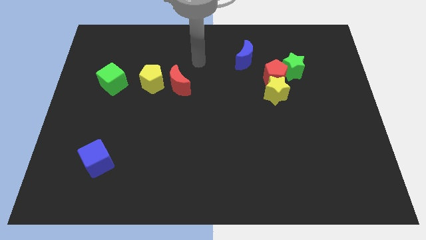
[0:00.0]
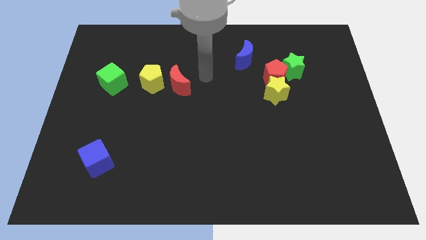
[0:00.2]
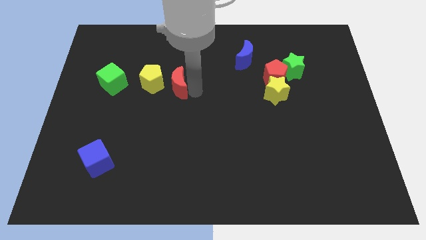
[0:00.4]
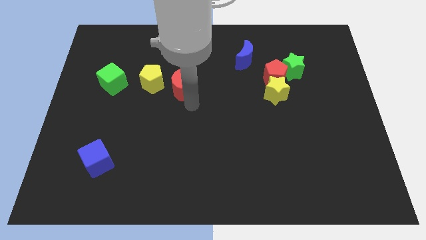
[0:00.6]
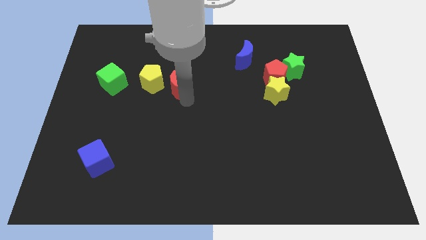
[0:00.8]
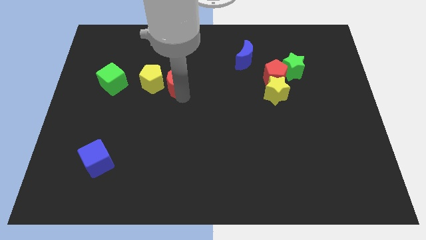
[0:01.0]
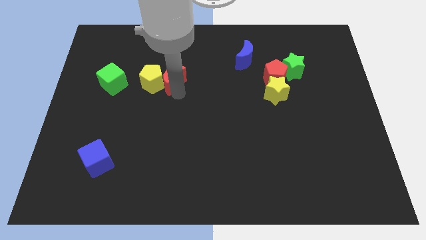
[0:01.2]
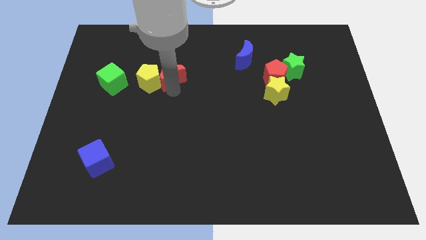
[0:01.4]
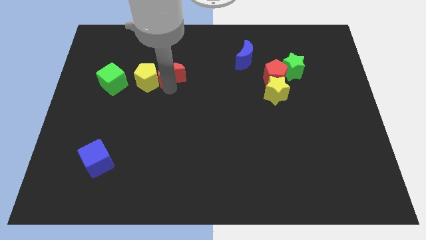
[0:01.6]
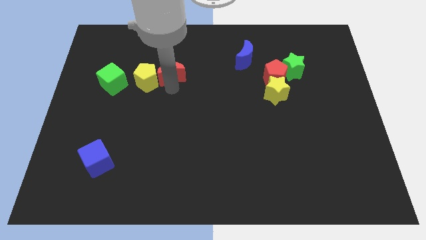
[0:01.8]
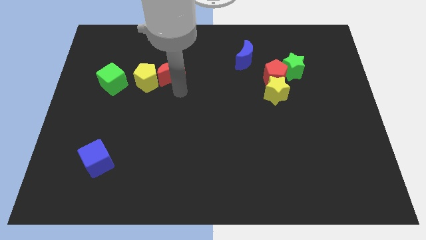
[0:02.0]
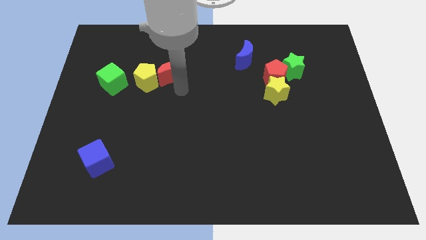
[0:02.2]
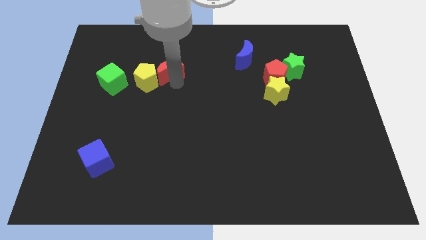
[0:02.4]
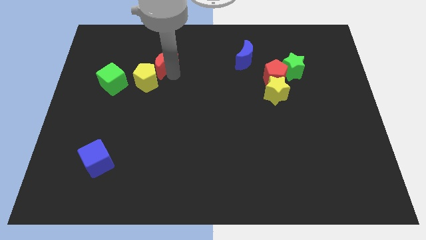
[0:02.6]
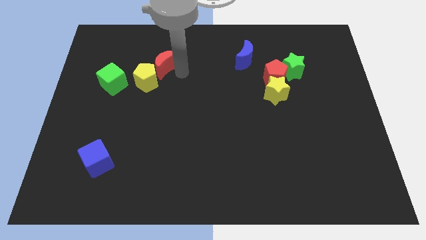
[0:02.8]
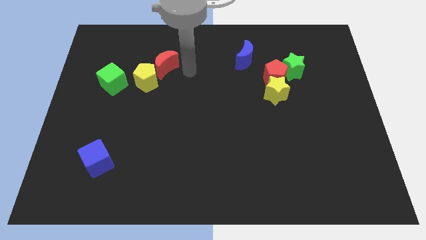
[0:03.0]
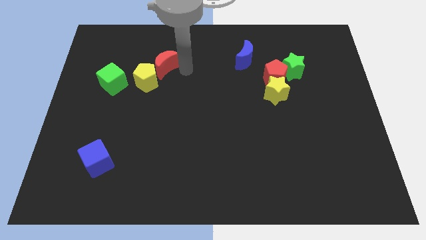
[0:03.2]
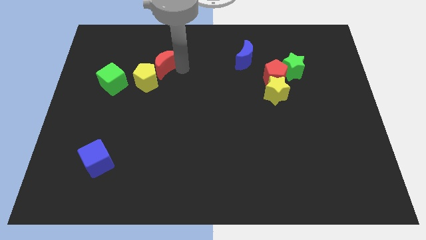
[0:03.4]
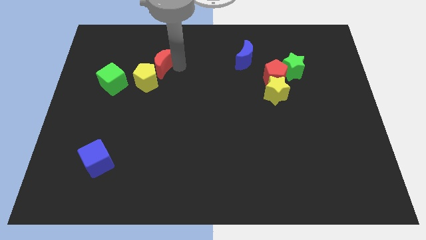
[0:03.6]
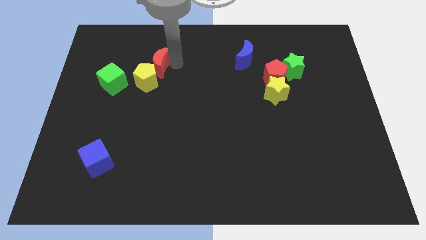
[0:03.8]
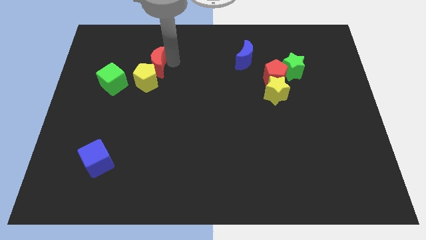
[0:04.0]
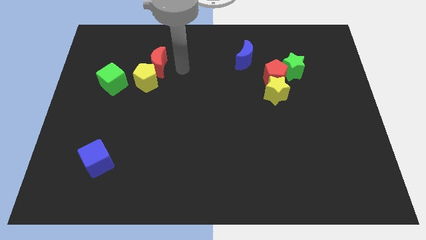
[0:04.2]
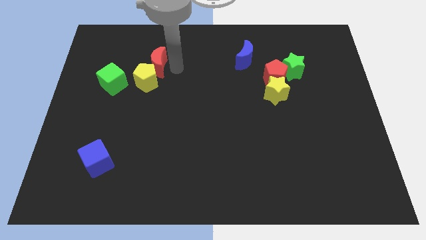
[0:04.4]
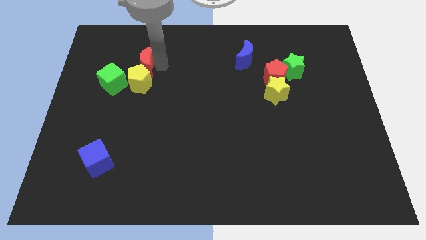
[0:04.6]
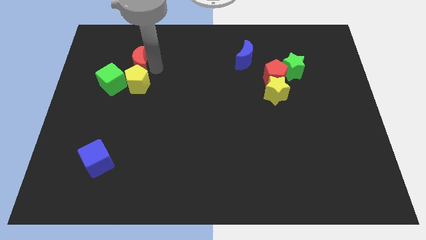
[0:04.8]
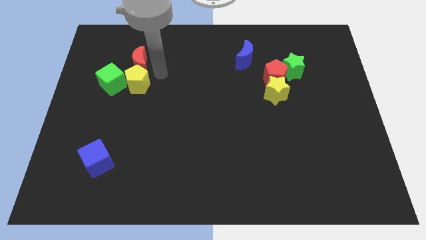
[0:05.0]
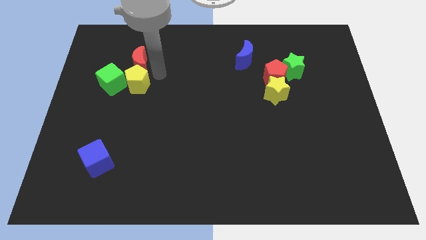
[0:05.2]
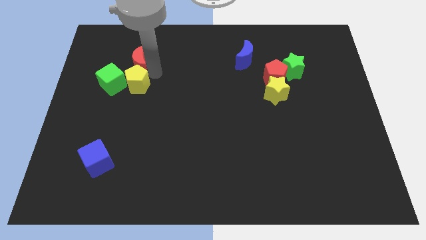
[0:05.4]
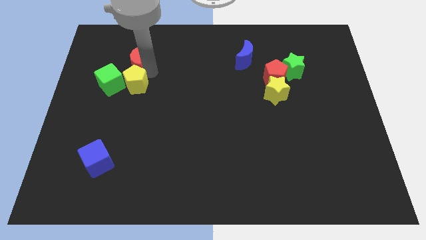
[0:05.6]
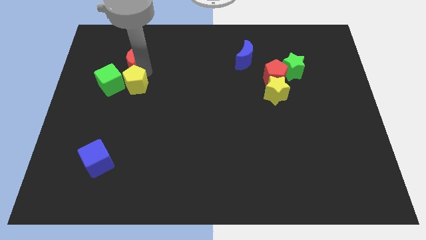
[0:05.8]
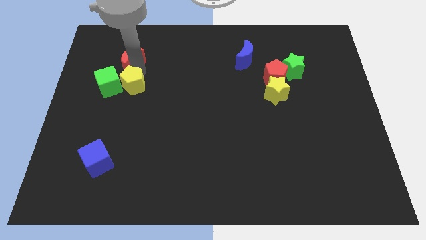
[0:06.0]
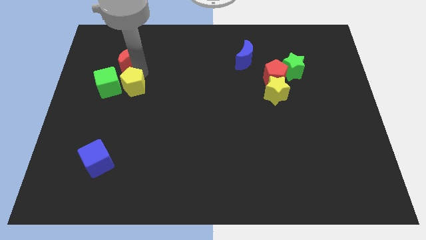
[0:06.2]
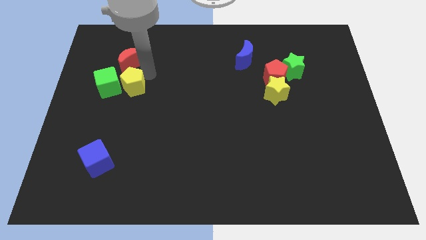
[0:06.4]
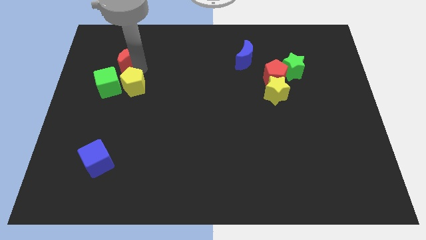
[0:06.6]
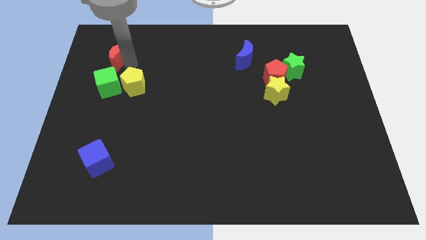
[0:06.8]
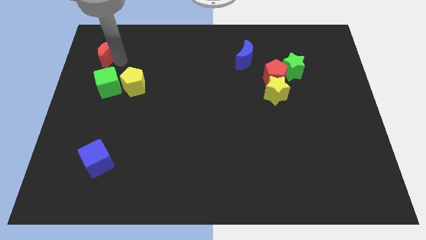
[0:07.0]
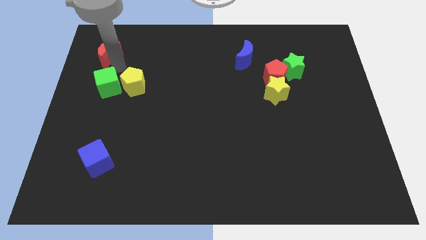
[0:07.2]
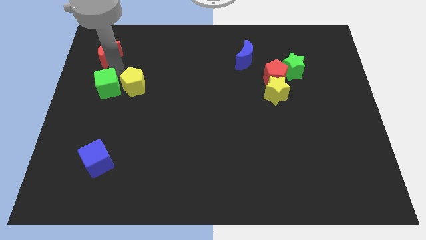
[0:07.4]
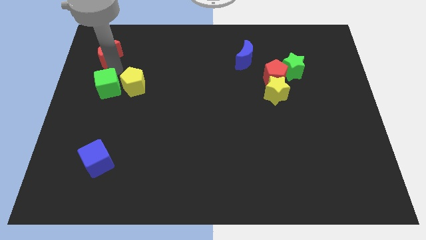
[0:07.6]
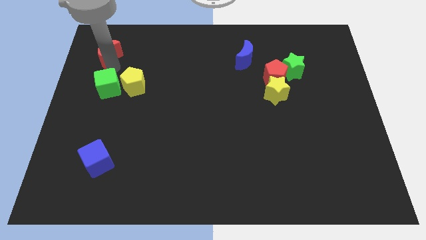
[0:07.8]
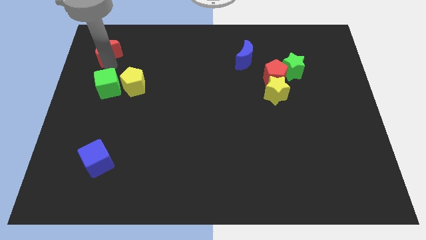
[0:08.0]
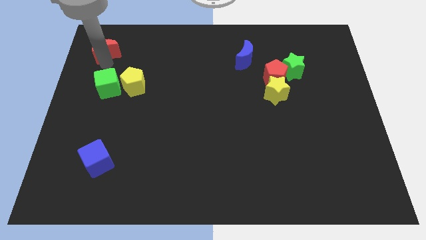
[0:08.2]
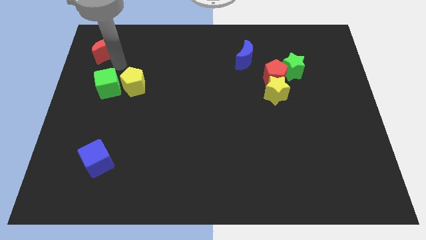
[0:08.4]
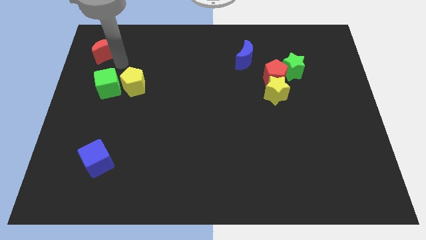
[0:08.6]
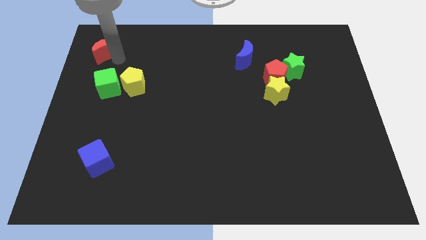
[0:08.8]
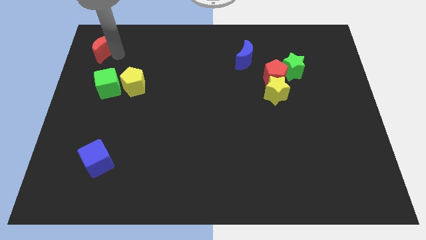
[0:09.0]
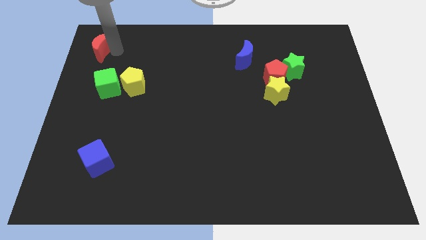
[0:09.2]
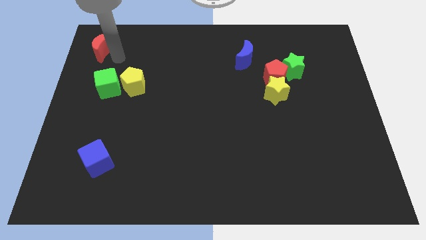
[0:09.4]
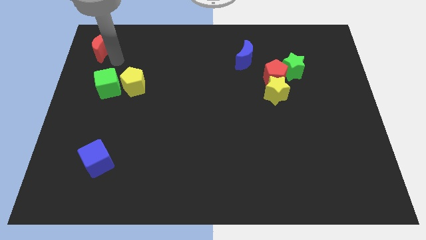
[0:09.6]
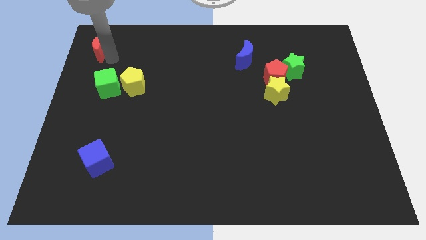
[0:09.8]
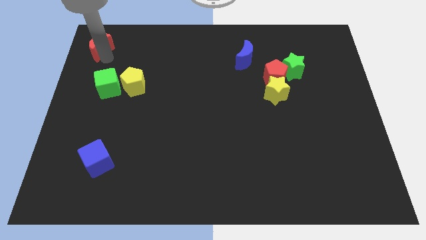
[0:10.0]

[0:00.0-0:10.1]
move the red moon to the upper left corner

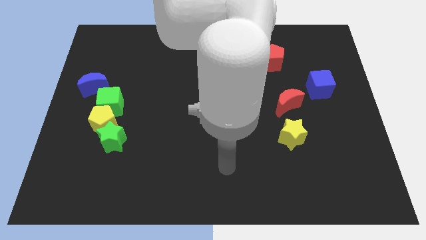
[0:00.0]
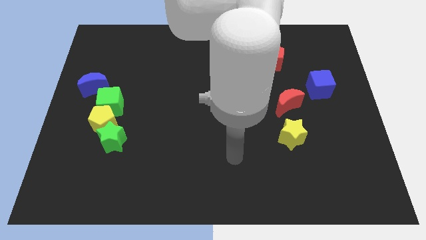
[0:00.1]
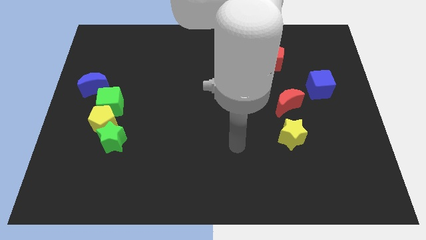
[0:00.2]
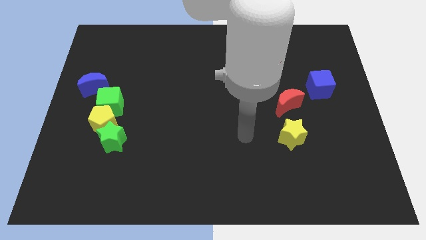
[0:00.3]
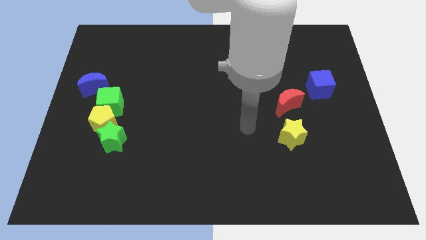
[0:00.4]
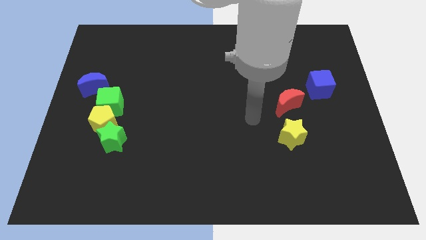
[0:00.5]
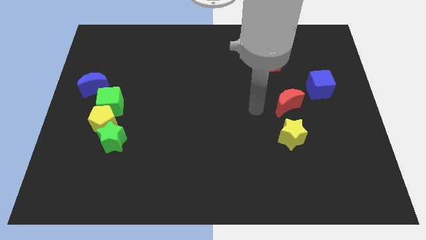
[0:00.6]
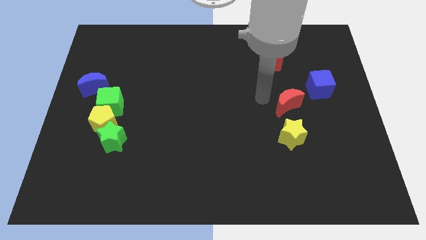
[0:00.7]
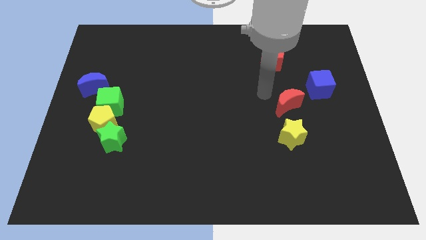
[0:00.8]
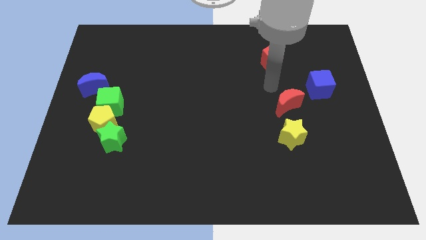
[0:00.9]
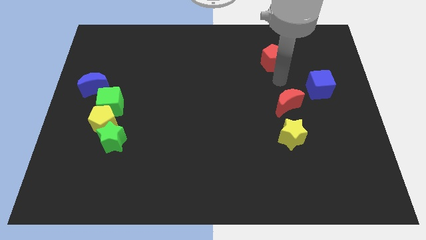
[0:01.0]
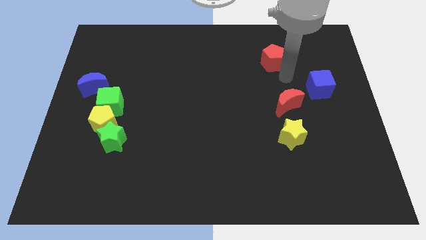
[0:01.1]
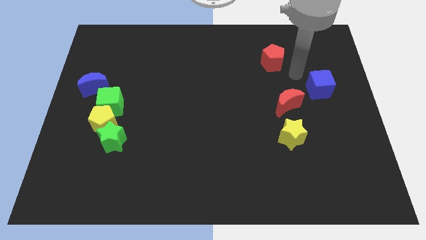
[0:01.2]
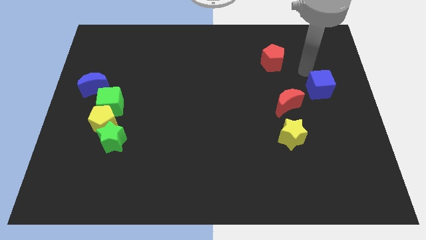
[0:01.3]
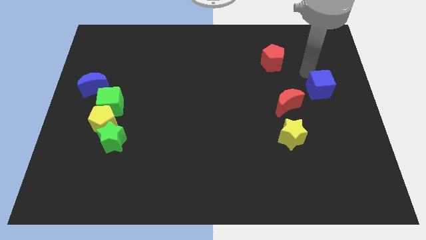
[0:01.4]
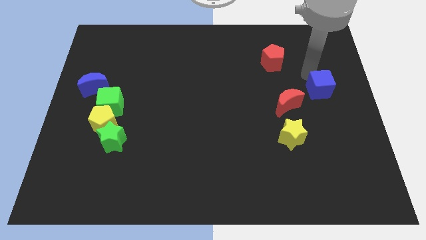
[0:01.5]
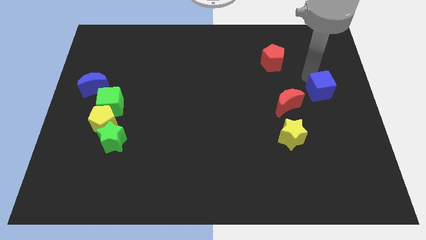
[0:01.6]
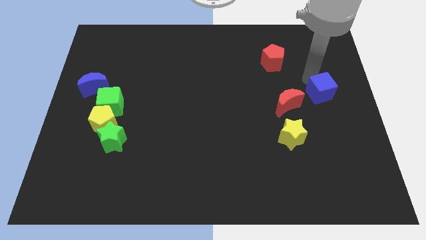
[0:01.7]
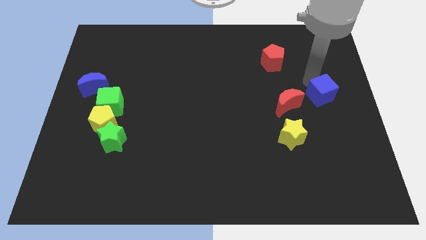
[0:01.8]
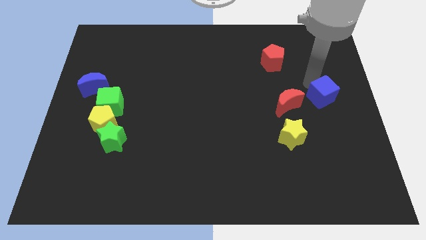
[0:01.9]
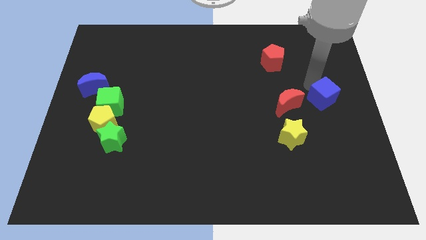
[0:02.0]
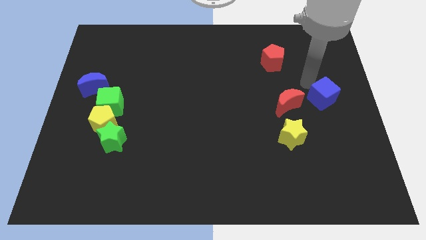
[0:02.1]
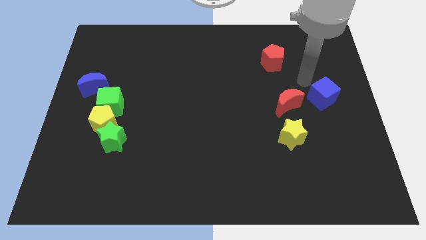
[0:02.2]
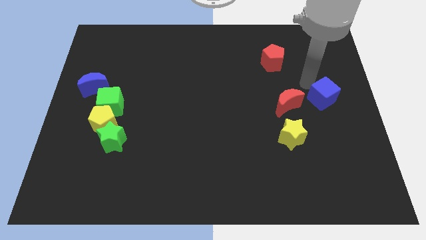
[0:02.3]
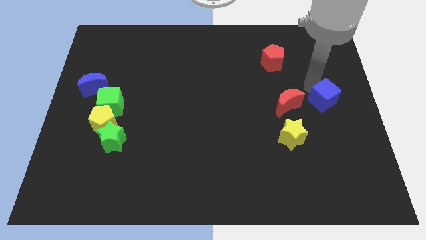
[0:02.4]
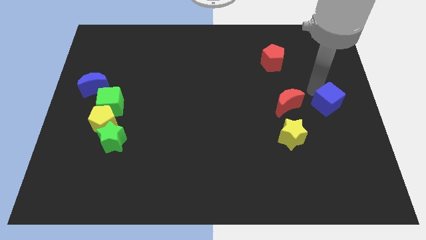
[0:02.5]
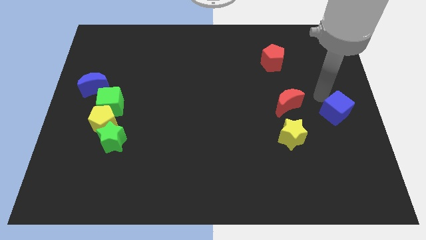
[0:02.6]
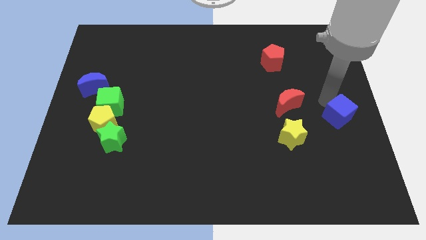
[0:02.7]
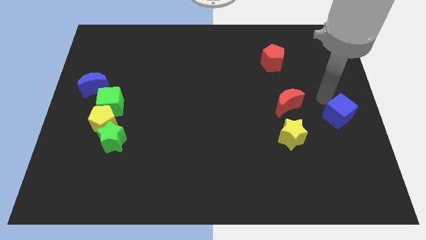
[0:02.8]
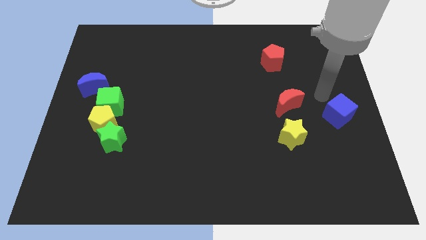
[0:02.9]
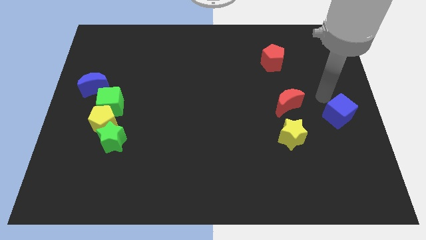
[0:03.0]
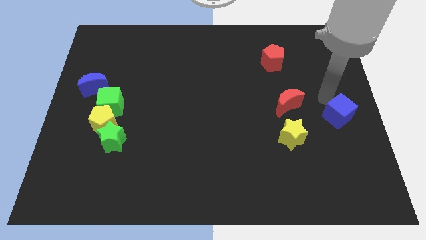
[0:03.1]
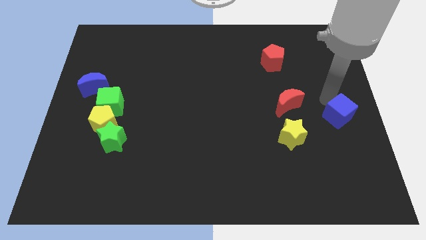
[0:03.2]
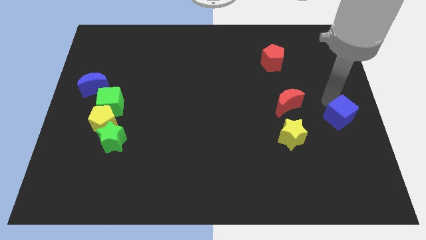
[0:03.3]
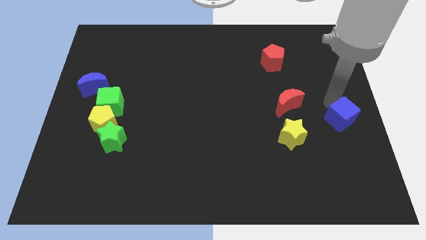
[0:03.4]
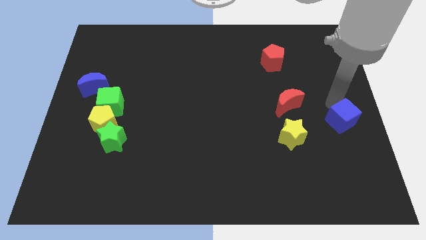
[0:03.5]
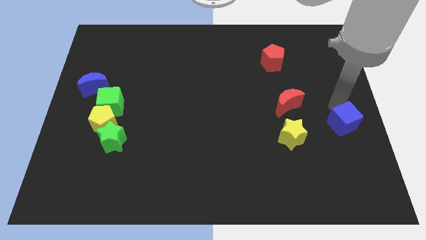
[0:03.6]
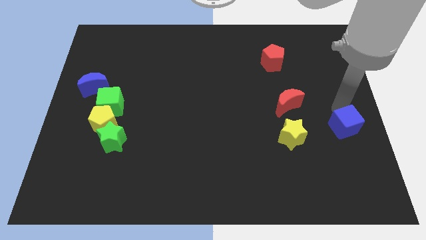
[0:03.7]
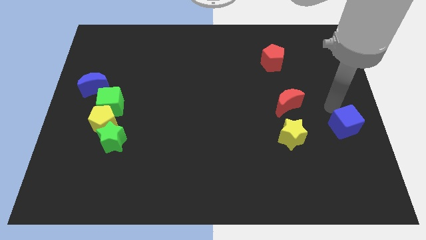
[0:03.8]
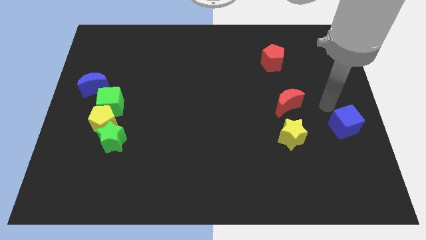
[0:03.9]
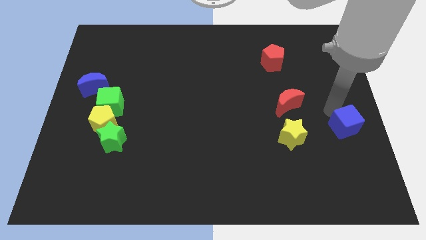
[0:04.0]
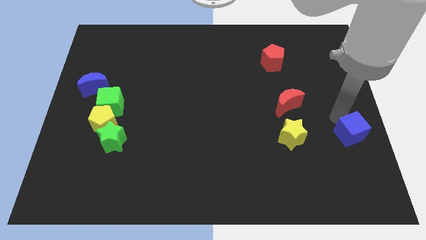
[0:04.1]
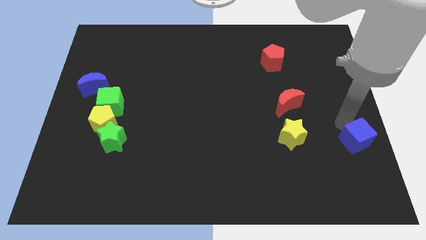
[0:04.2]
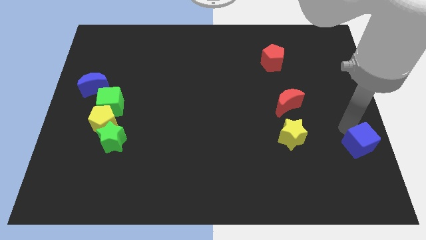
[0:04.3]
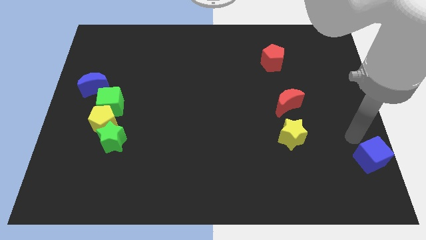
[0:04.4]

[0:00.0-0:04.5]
move the blue cube to the bottom right corner
